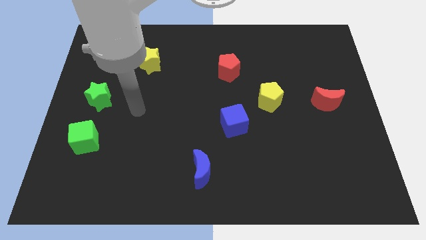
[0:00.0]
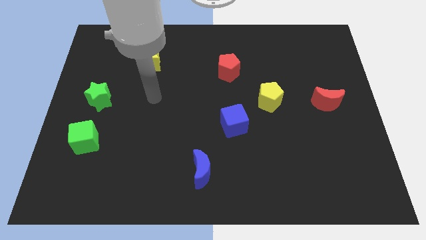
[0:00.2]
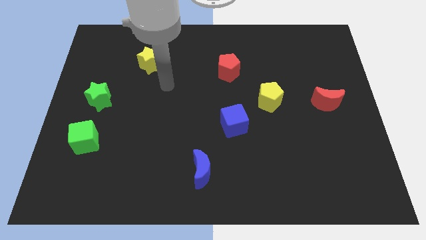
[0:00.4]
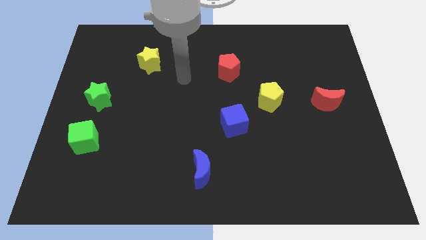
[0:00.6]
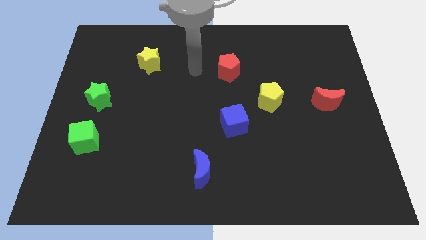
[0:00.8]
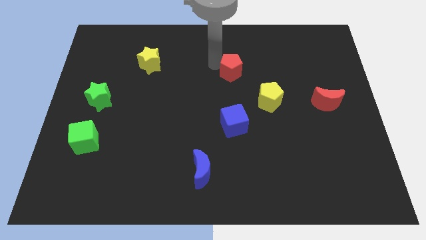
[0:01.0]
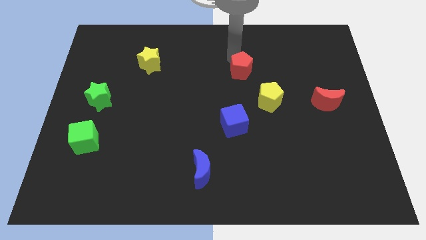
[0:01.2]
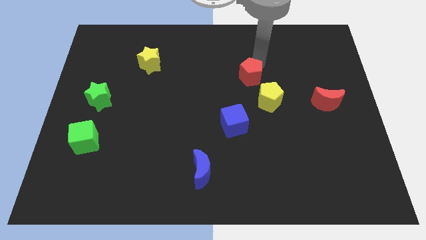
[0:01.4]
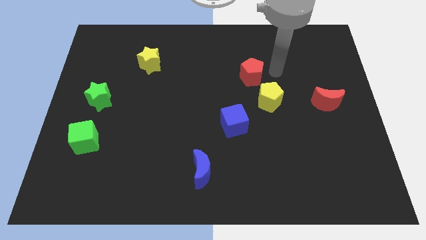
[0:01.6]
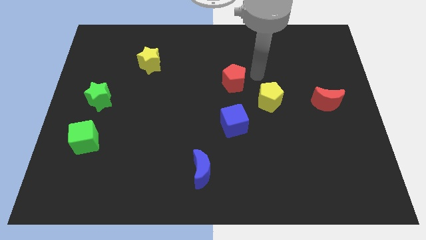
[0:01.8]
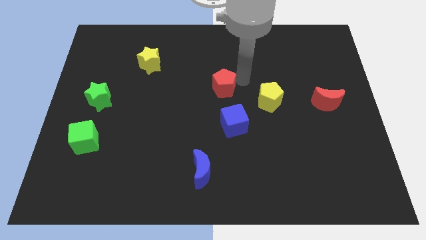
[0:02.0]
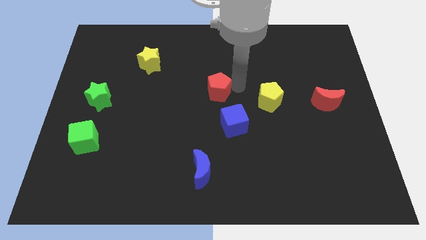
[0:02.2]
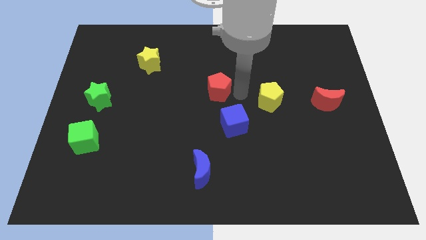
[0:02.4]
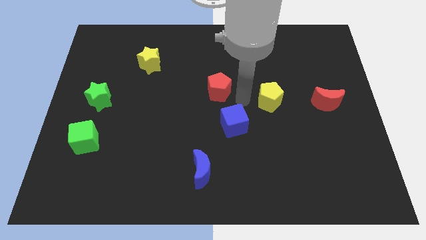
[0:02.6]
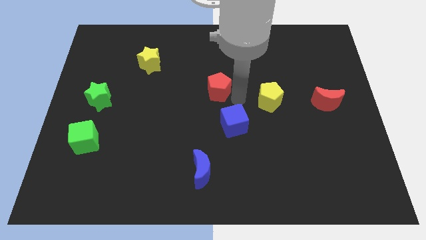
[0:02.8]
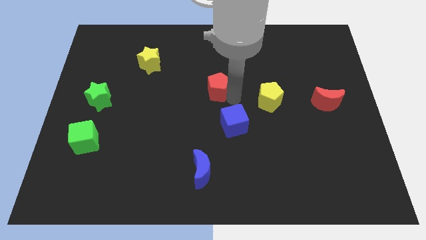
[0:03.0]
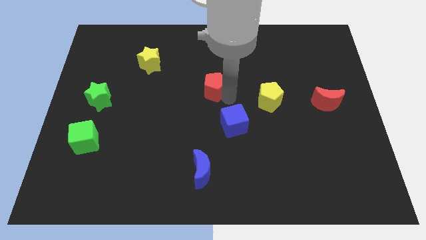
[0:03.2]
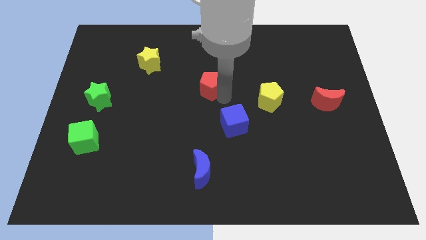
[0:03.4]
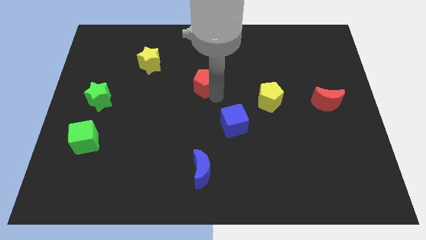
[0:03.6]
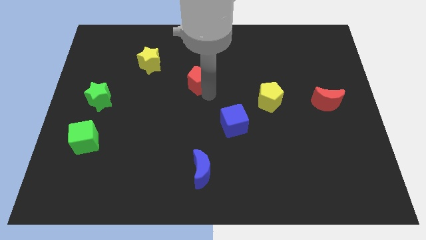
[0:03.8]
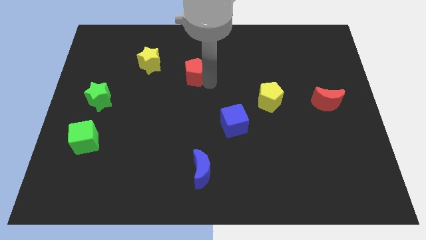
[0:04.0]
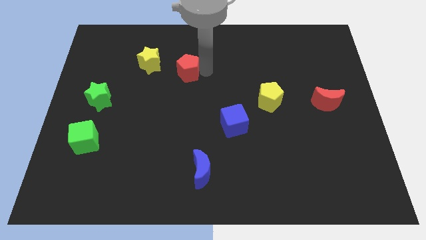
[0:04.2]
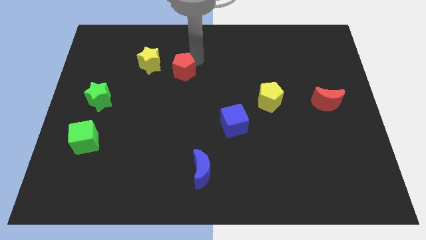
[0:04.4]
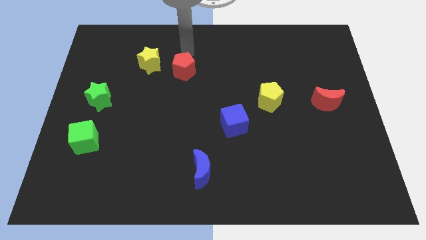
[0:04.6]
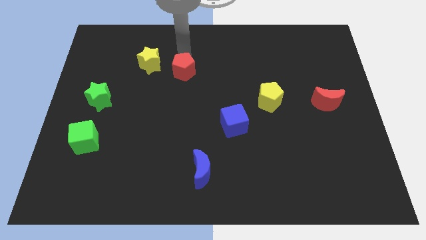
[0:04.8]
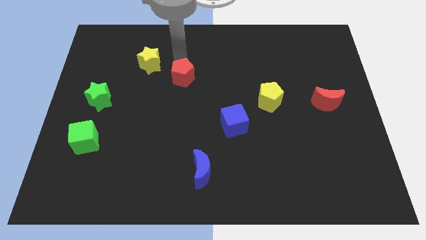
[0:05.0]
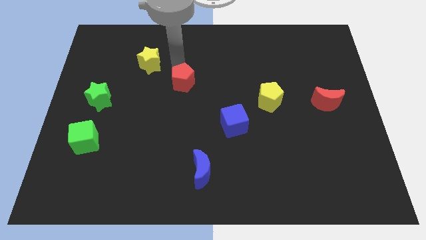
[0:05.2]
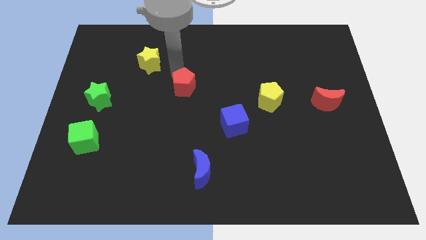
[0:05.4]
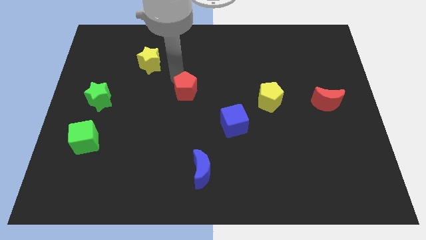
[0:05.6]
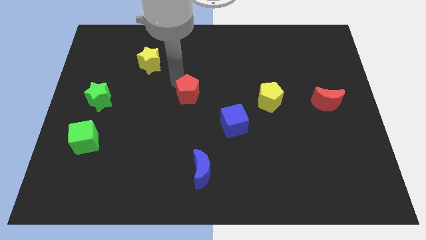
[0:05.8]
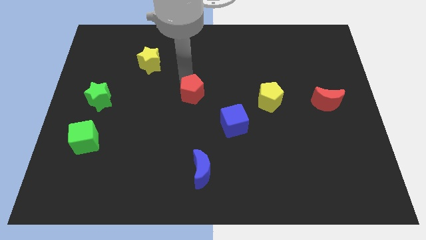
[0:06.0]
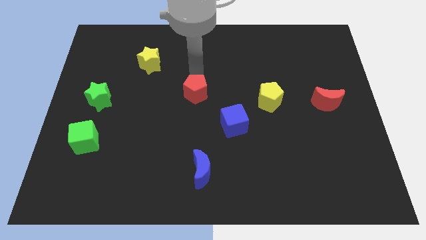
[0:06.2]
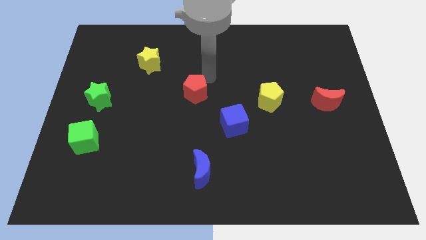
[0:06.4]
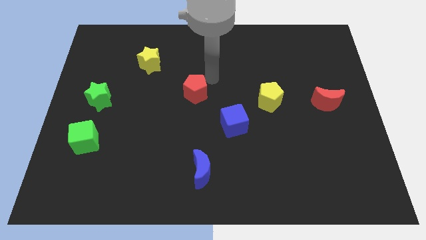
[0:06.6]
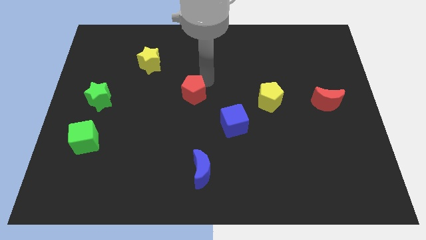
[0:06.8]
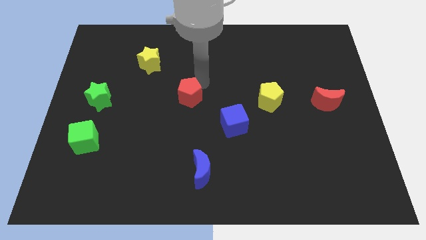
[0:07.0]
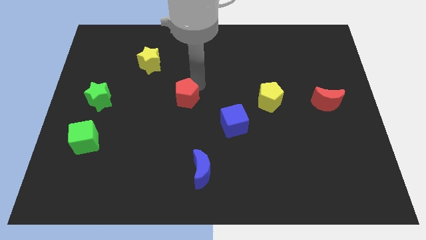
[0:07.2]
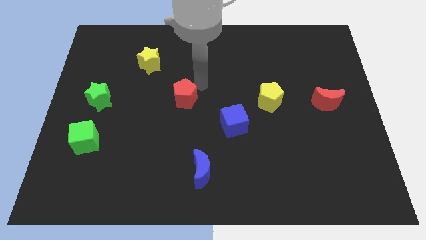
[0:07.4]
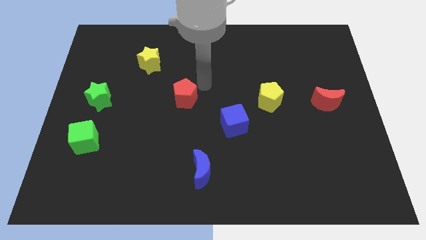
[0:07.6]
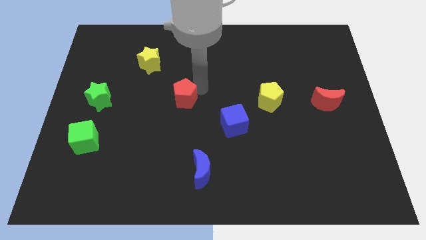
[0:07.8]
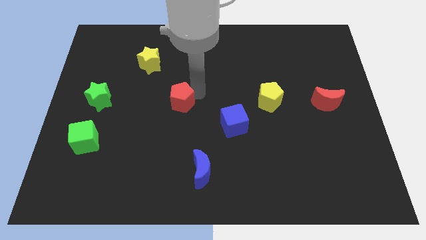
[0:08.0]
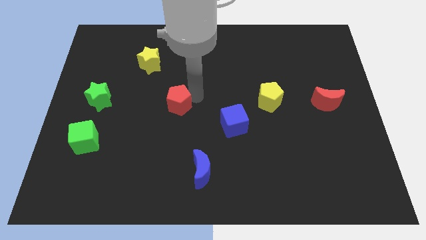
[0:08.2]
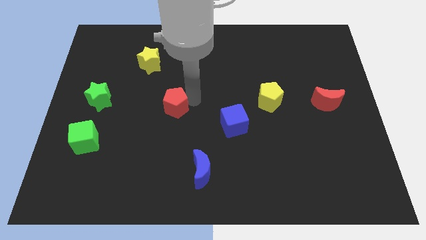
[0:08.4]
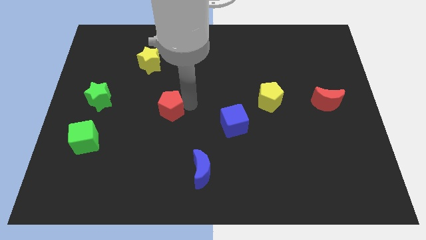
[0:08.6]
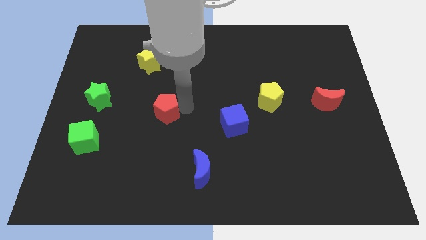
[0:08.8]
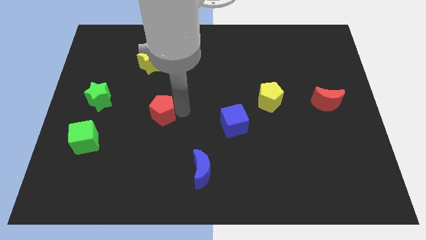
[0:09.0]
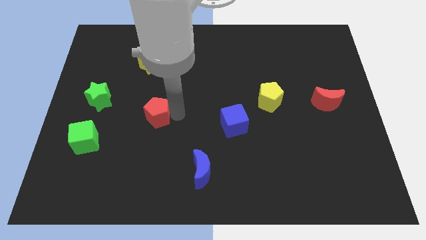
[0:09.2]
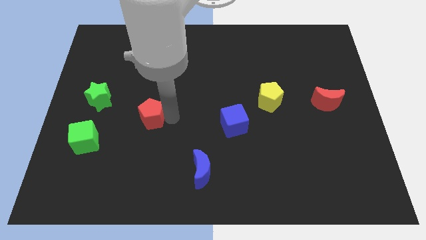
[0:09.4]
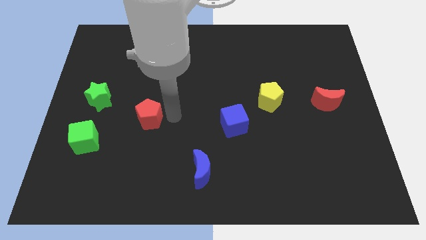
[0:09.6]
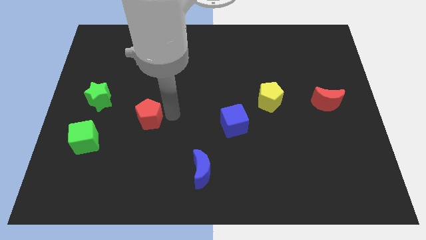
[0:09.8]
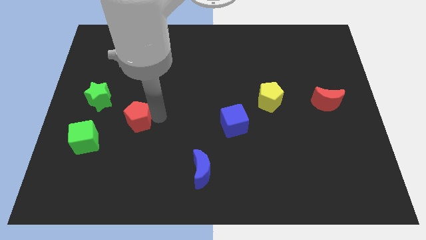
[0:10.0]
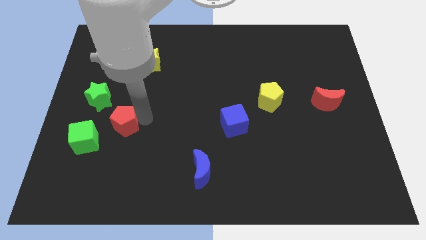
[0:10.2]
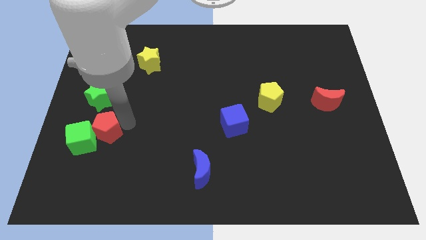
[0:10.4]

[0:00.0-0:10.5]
move the red pentagon close to the green cube

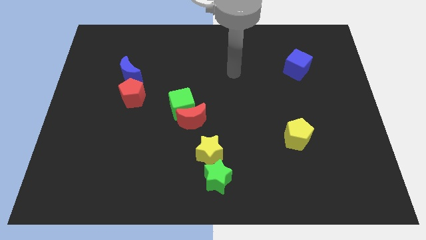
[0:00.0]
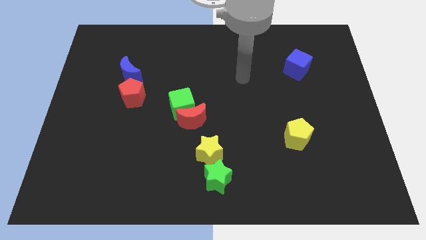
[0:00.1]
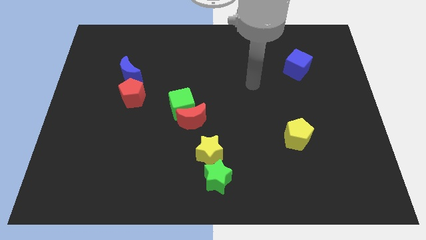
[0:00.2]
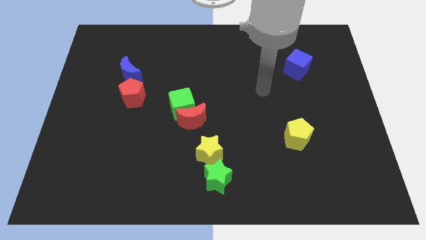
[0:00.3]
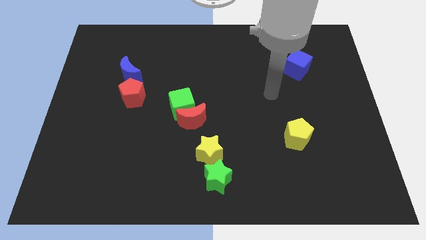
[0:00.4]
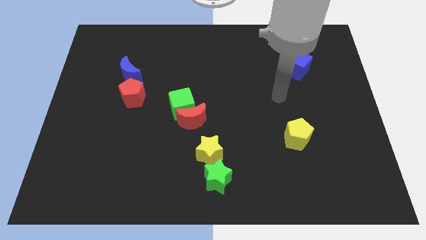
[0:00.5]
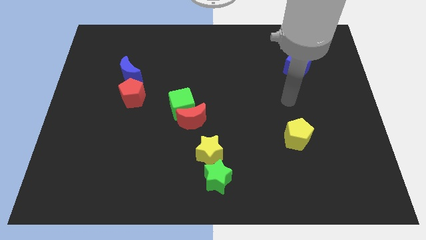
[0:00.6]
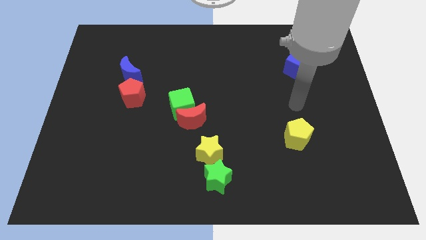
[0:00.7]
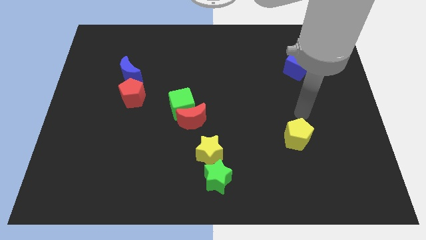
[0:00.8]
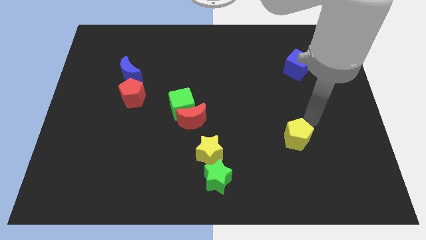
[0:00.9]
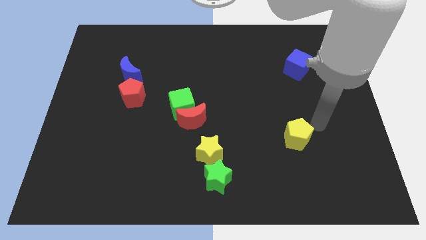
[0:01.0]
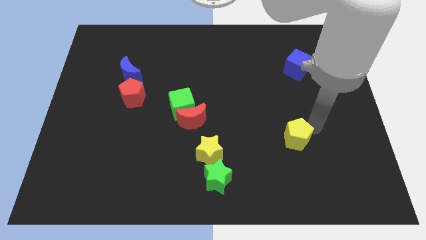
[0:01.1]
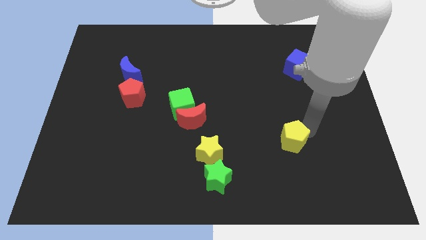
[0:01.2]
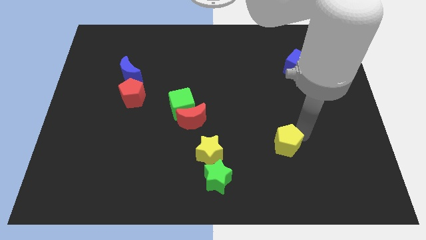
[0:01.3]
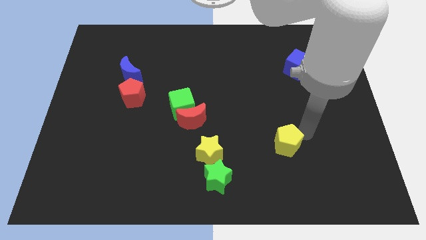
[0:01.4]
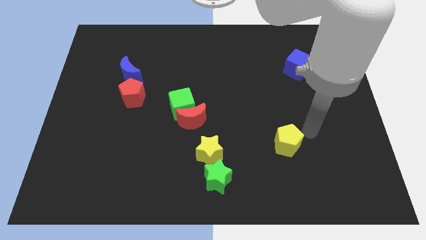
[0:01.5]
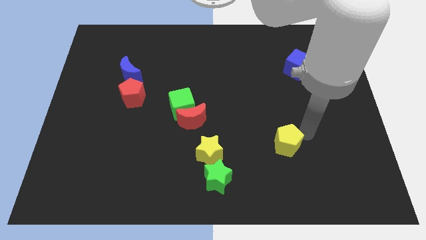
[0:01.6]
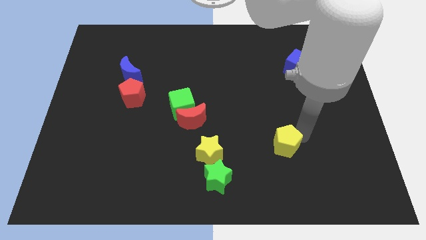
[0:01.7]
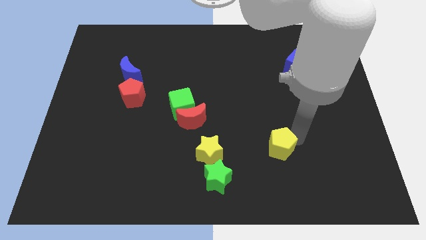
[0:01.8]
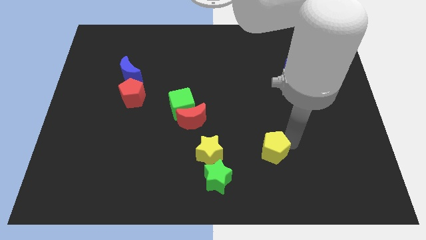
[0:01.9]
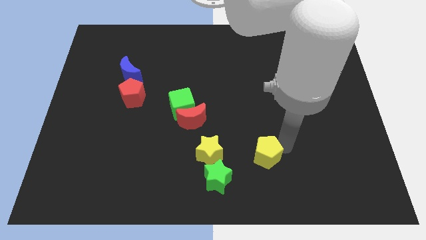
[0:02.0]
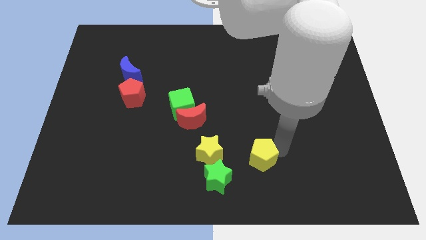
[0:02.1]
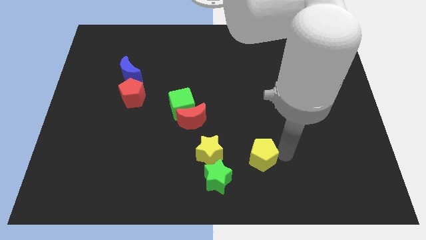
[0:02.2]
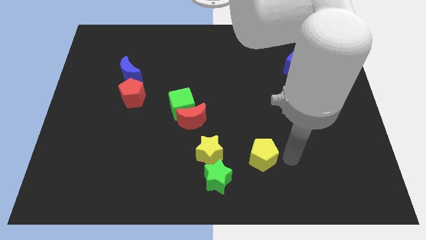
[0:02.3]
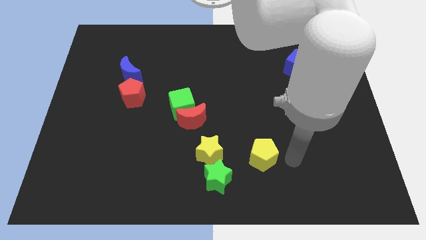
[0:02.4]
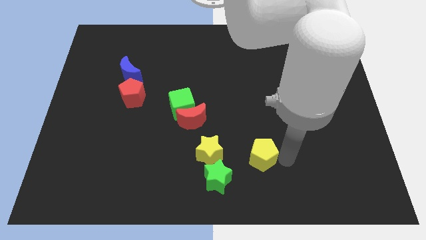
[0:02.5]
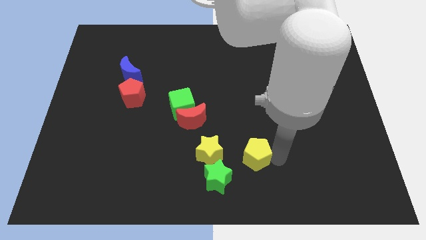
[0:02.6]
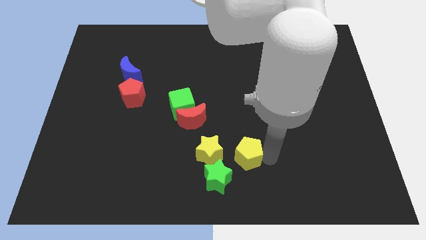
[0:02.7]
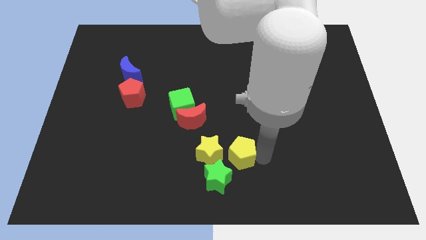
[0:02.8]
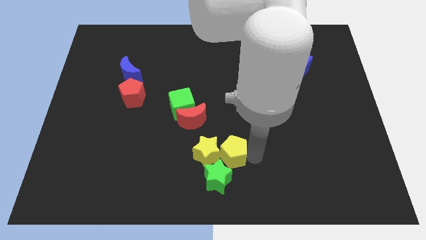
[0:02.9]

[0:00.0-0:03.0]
push the yellow pentagon close to the yellow star
